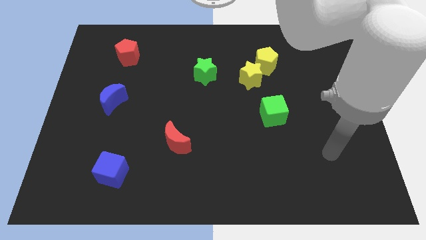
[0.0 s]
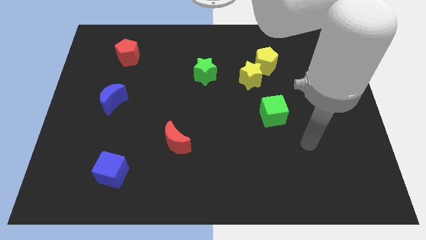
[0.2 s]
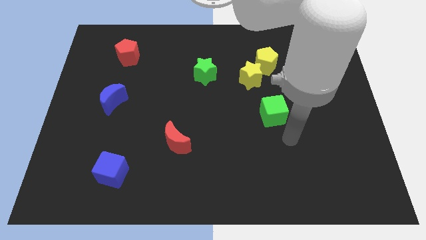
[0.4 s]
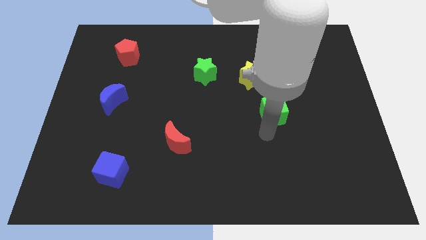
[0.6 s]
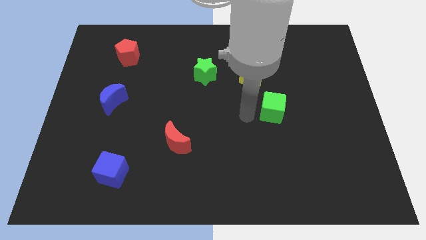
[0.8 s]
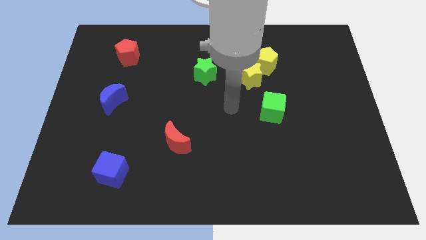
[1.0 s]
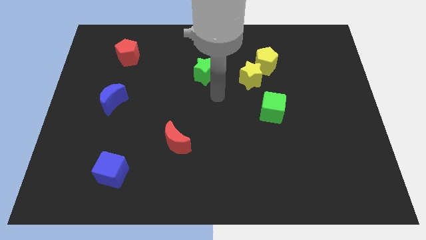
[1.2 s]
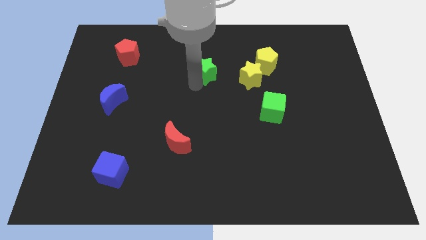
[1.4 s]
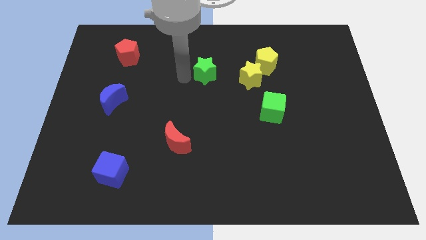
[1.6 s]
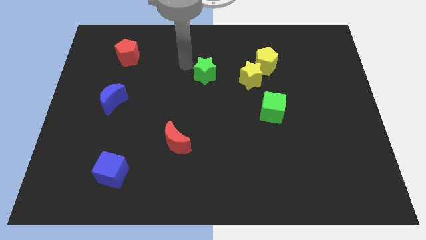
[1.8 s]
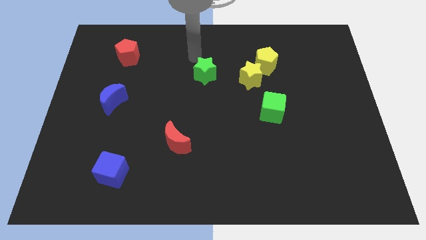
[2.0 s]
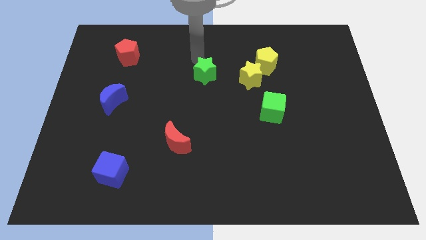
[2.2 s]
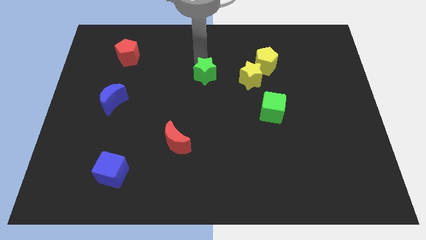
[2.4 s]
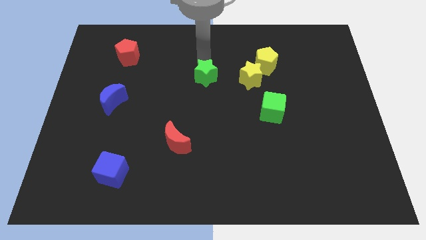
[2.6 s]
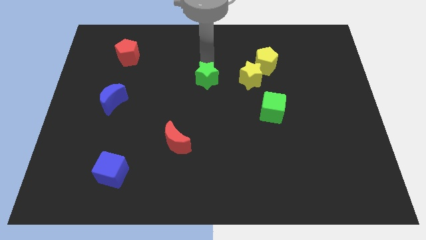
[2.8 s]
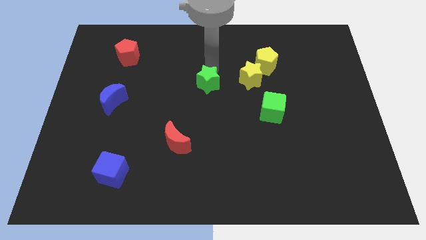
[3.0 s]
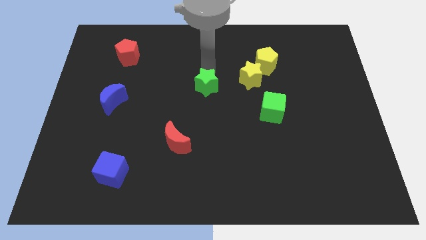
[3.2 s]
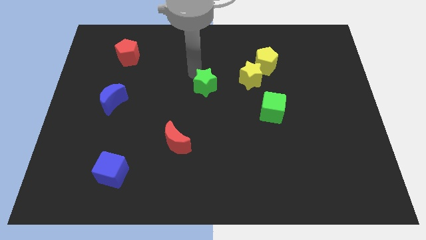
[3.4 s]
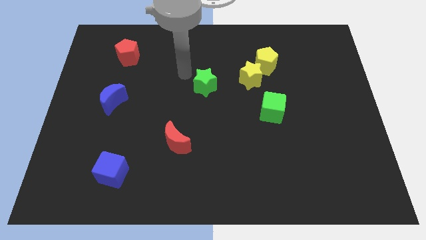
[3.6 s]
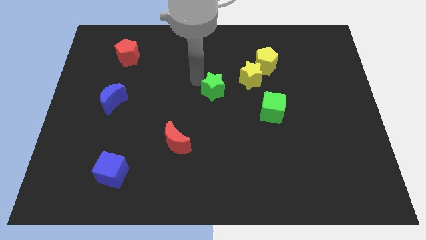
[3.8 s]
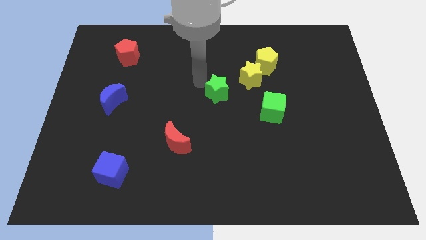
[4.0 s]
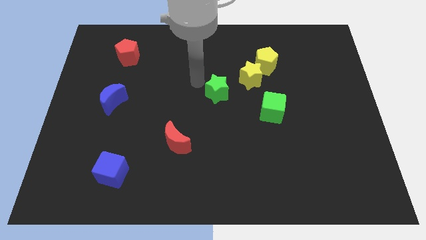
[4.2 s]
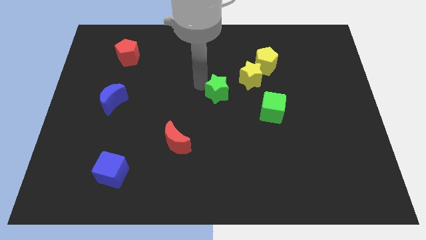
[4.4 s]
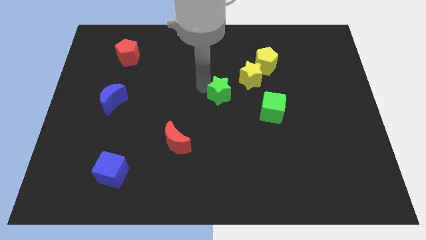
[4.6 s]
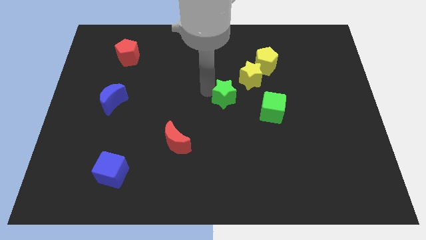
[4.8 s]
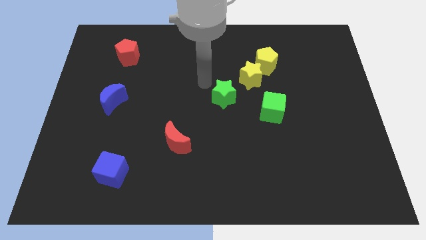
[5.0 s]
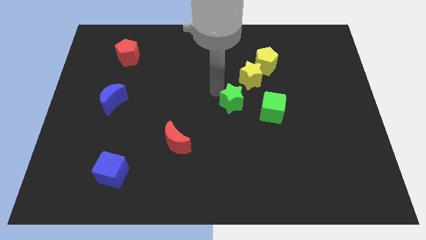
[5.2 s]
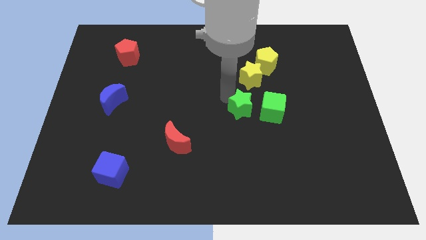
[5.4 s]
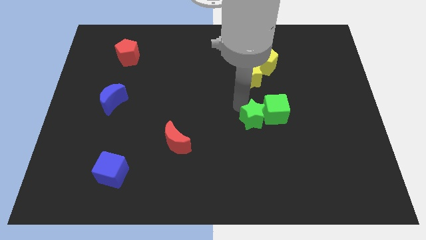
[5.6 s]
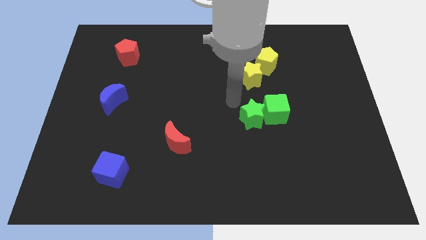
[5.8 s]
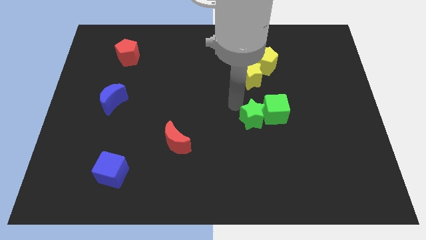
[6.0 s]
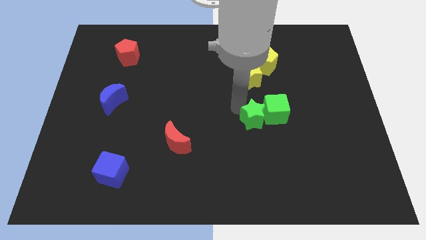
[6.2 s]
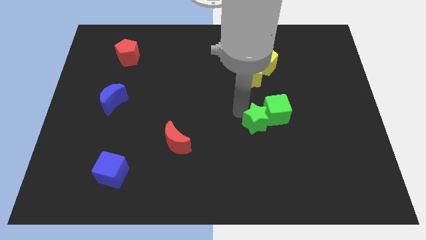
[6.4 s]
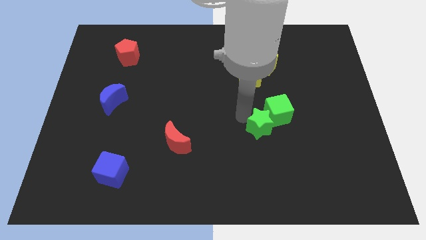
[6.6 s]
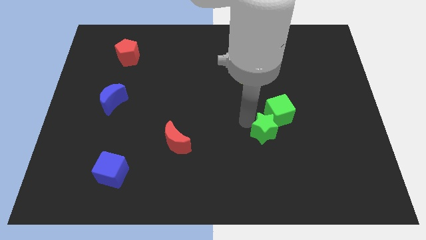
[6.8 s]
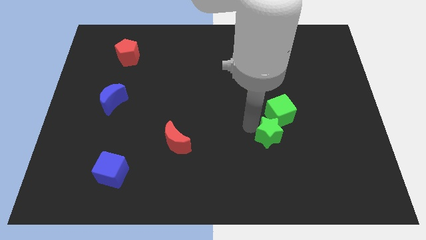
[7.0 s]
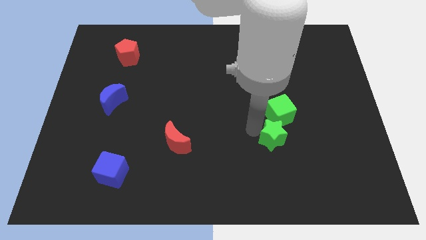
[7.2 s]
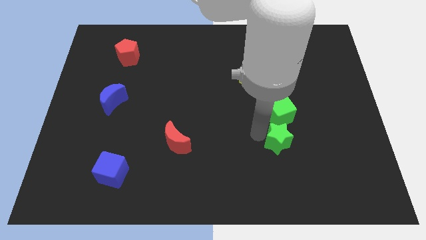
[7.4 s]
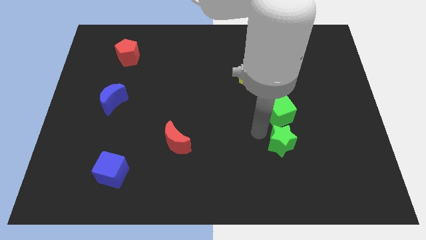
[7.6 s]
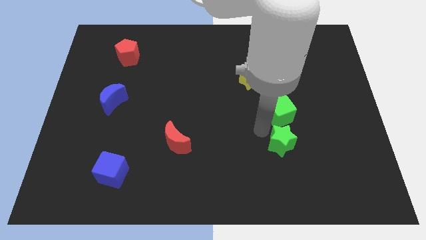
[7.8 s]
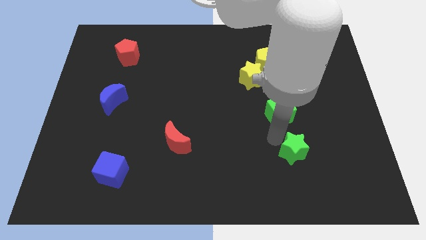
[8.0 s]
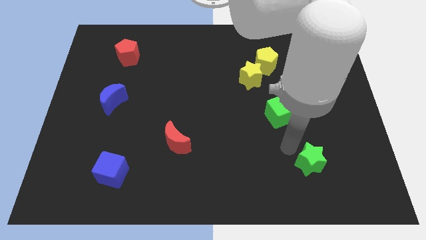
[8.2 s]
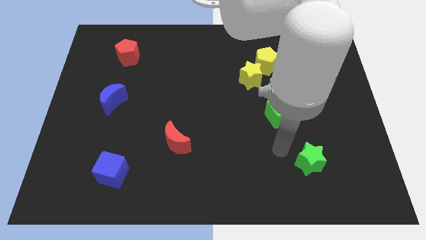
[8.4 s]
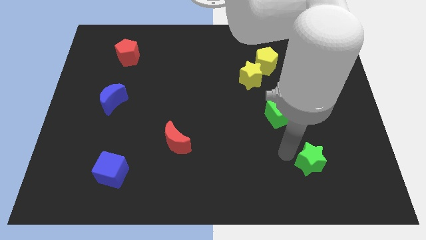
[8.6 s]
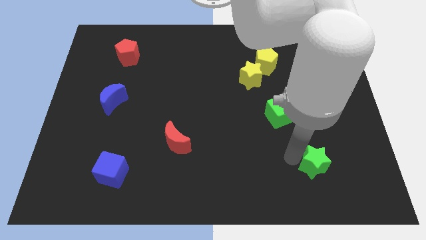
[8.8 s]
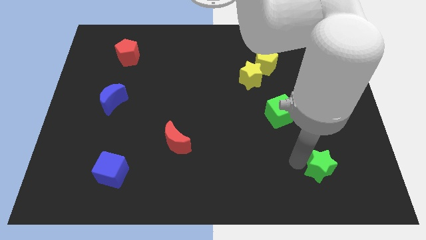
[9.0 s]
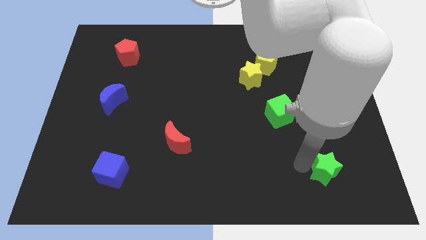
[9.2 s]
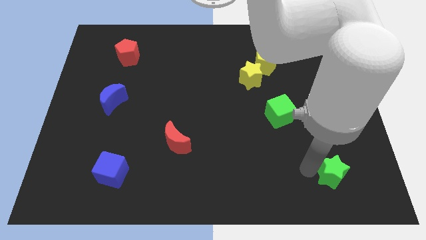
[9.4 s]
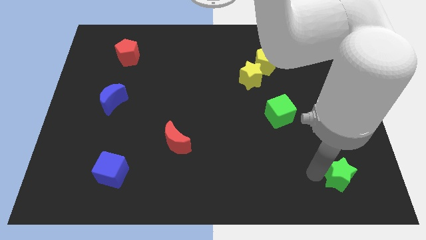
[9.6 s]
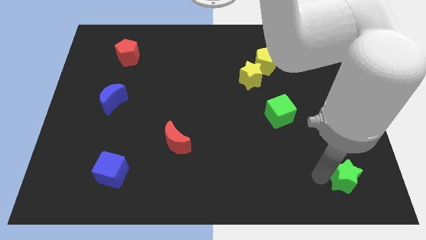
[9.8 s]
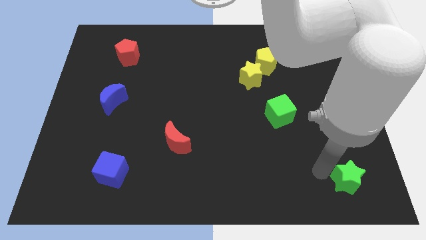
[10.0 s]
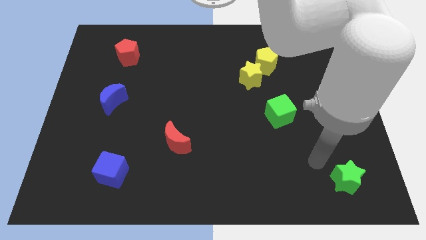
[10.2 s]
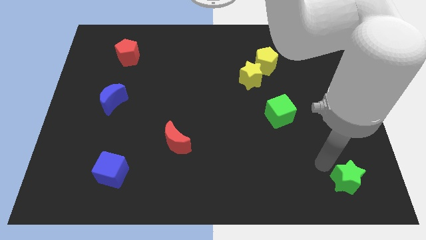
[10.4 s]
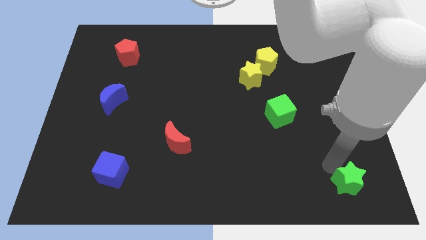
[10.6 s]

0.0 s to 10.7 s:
move the green star to the bottom right corner
